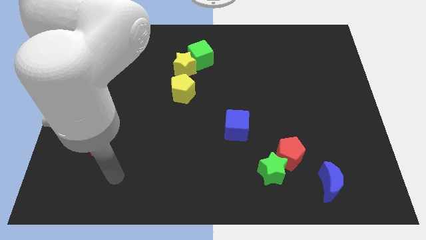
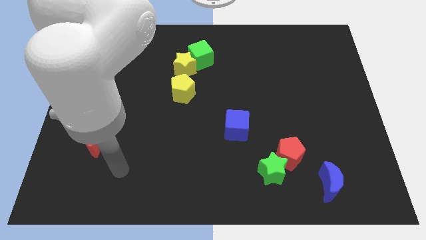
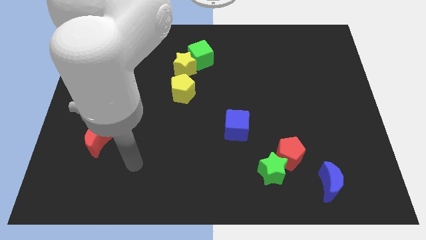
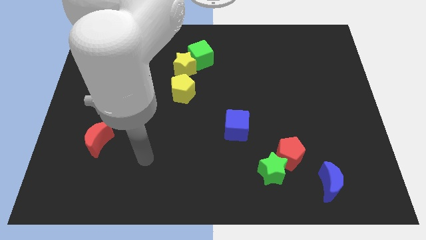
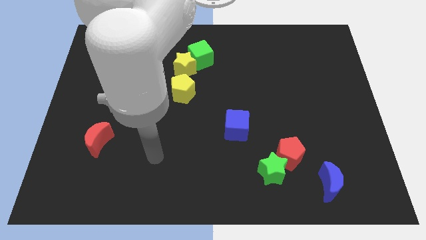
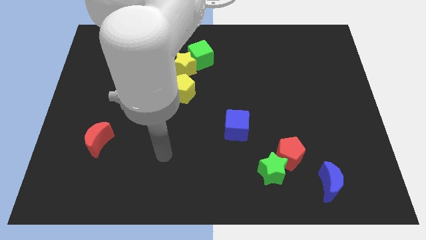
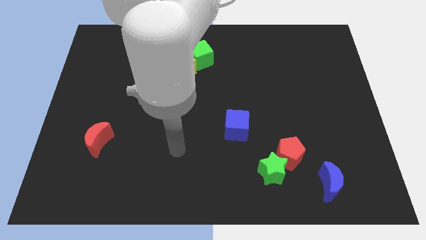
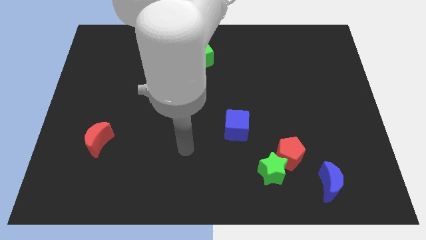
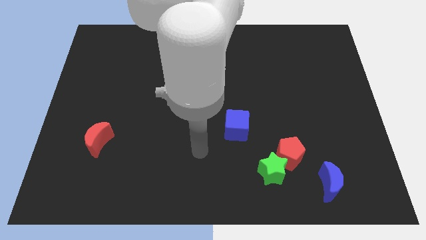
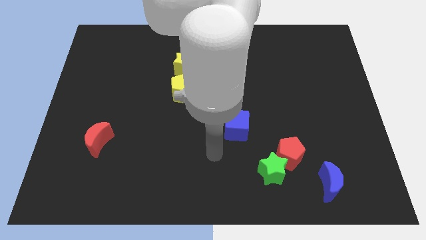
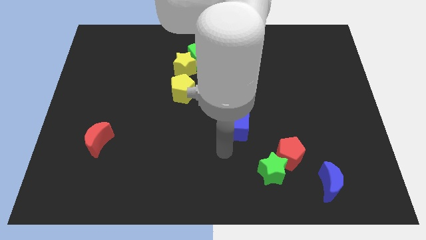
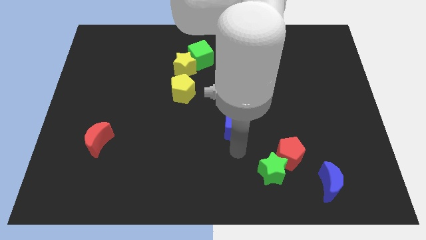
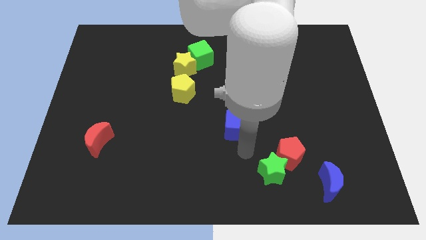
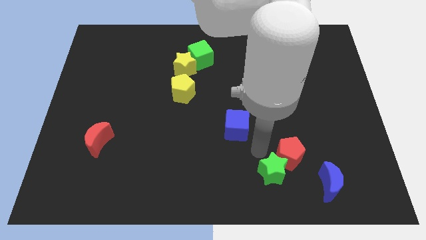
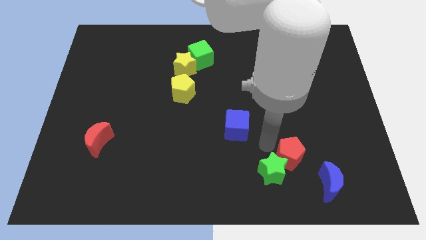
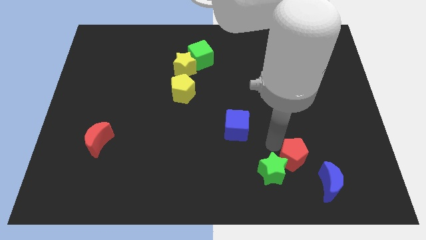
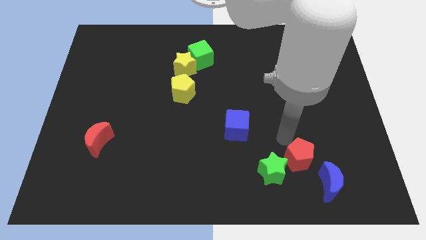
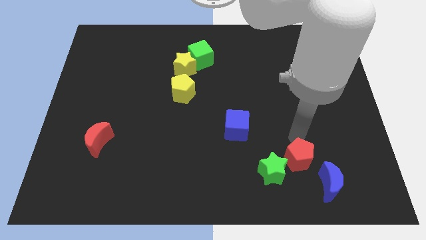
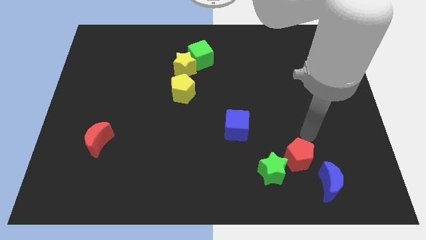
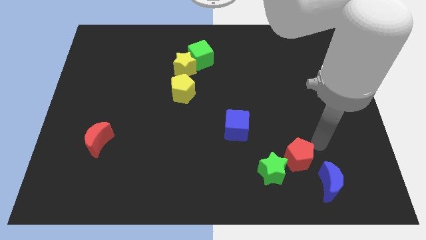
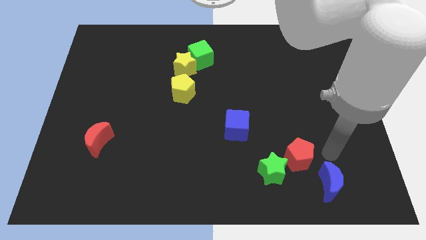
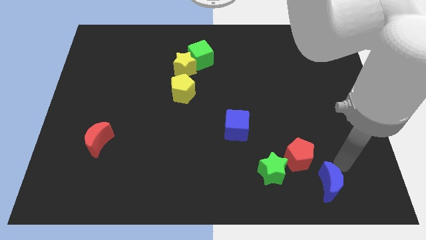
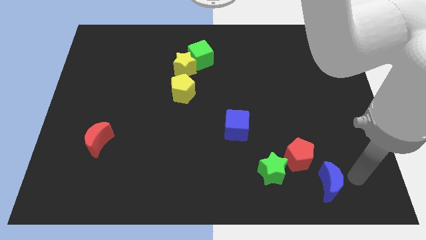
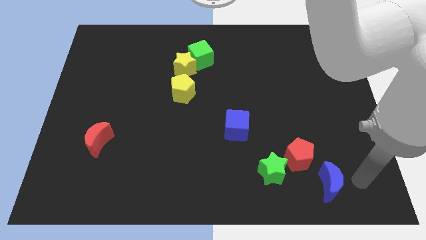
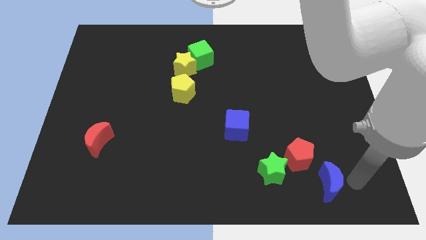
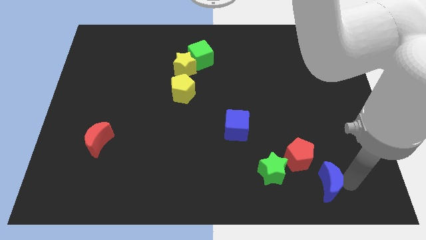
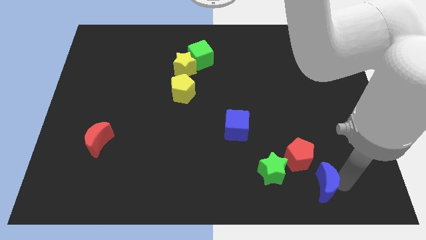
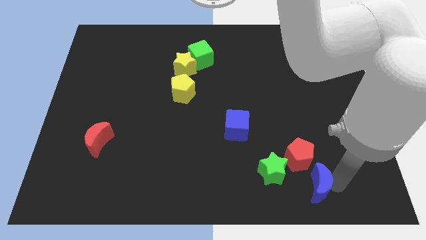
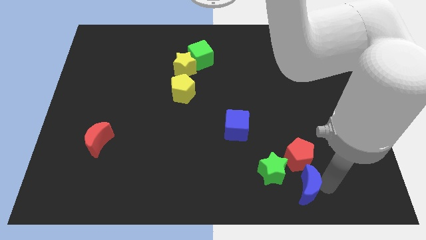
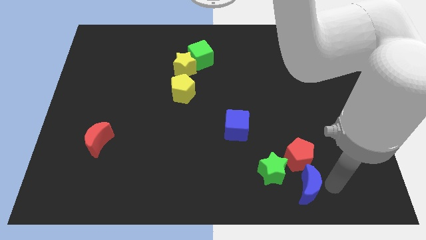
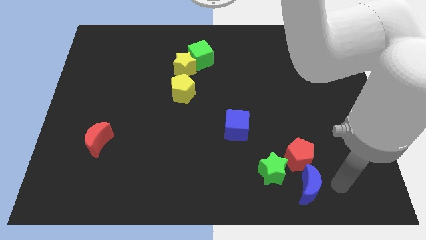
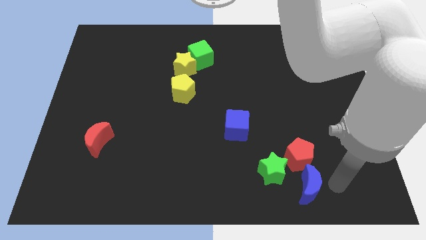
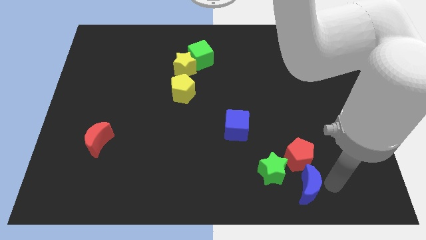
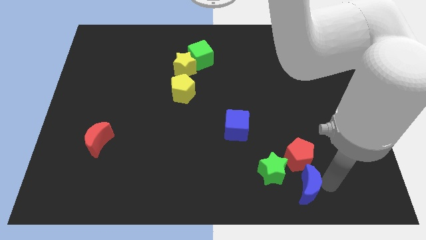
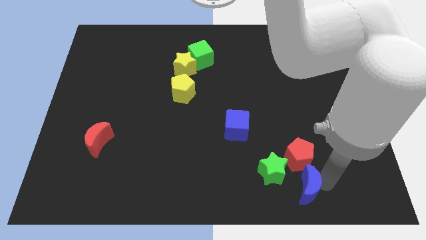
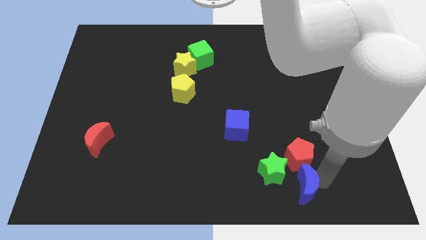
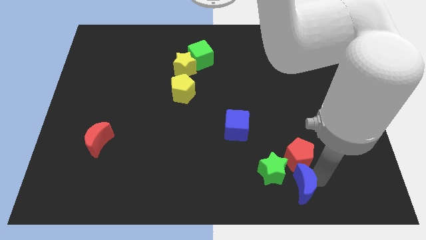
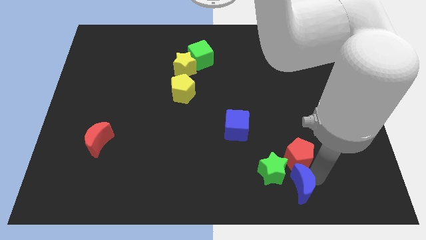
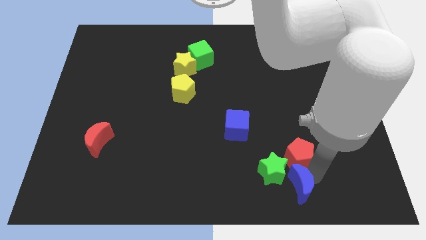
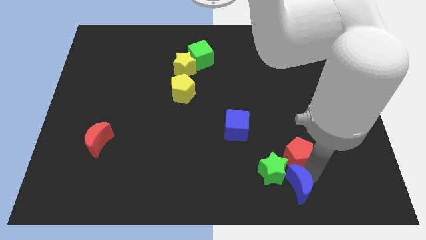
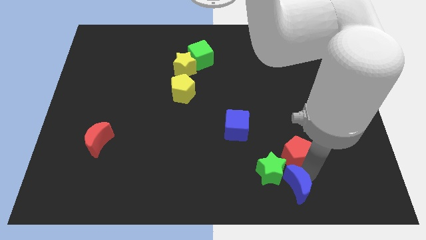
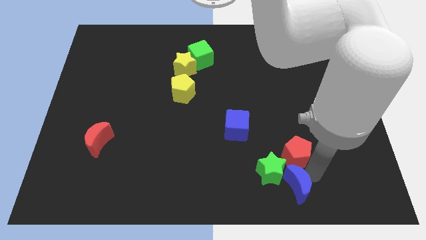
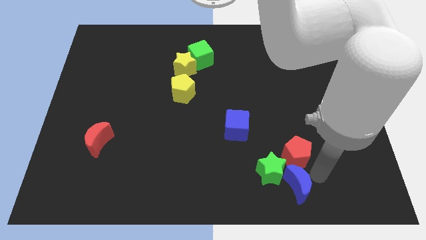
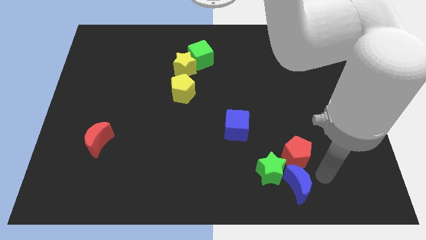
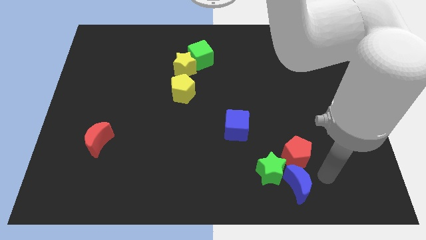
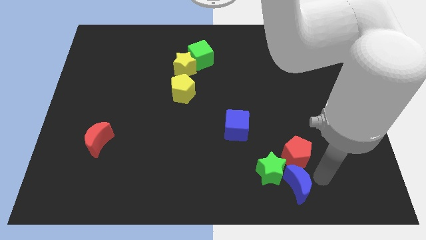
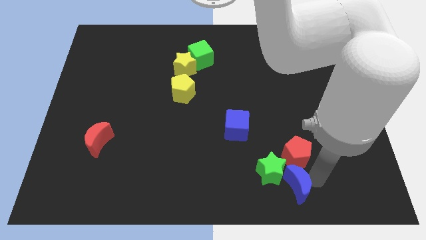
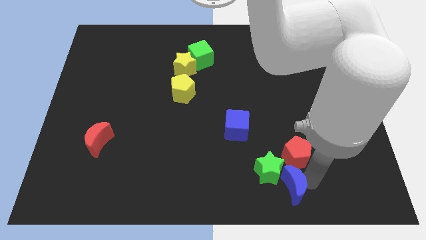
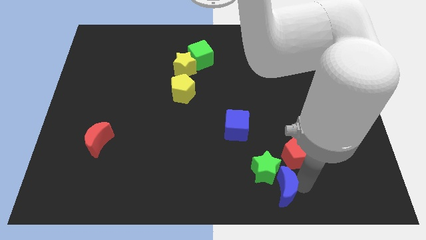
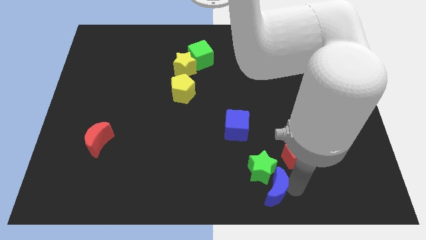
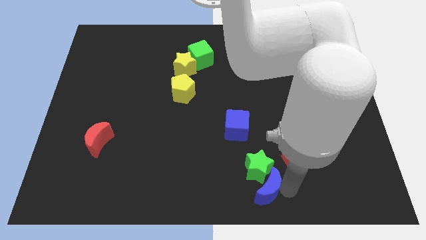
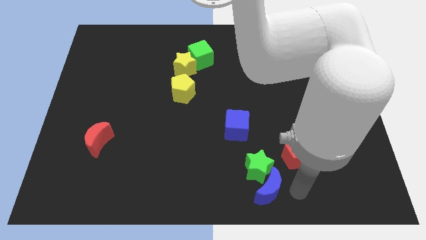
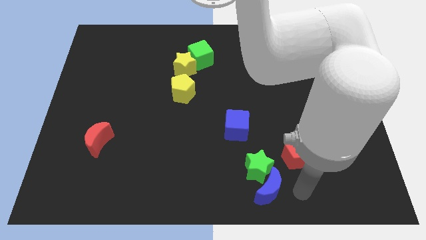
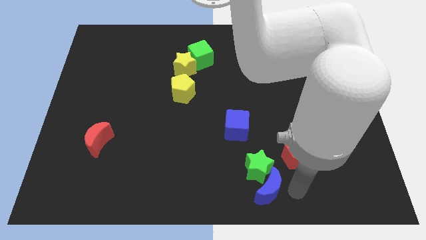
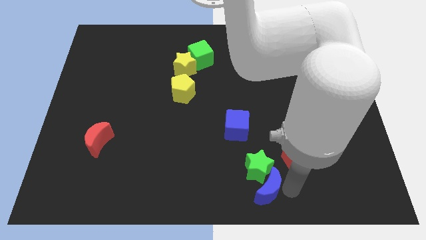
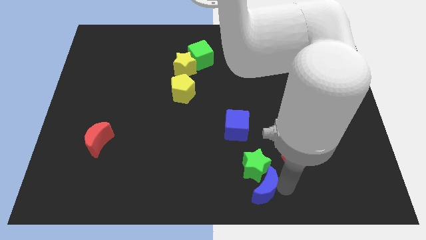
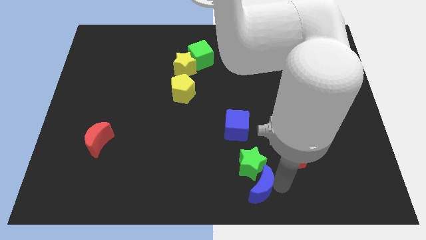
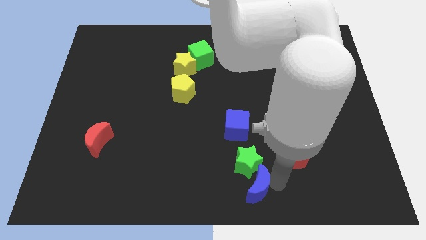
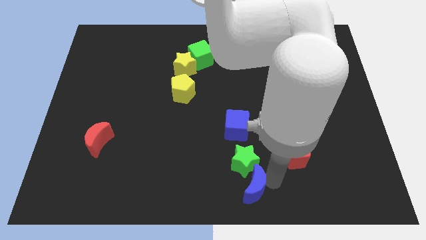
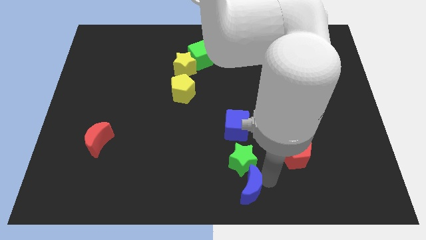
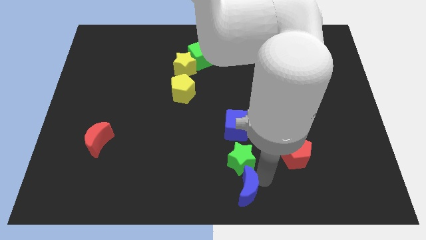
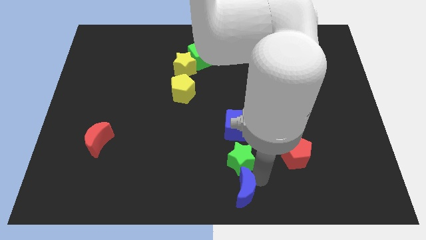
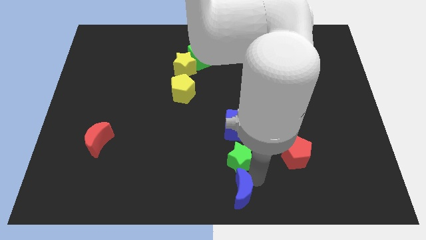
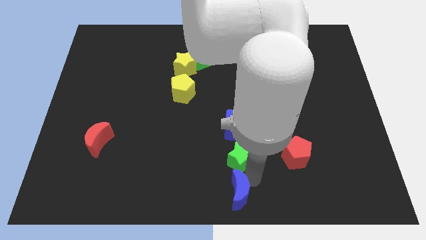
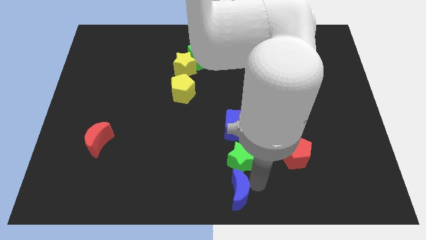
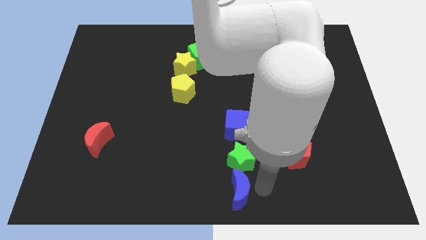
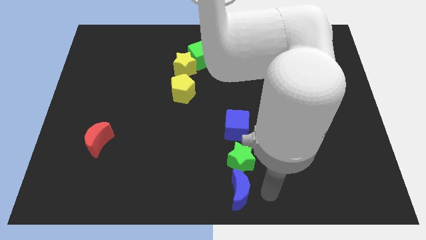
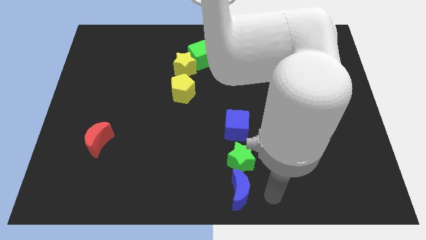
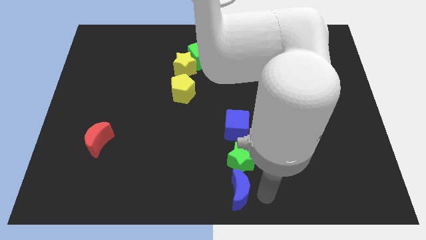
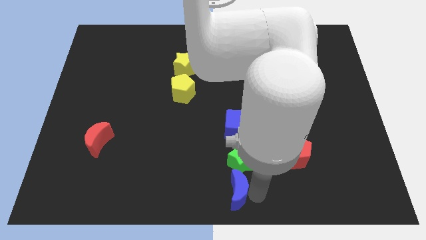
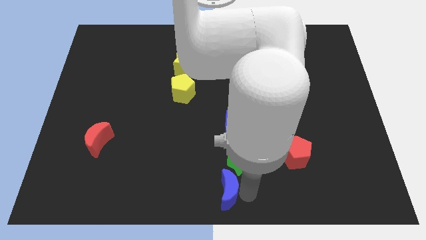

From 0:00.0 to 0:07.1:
slide the blue moon to the left

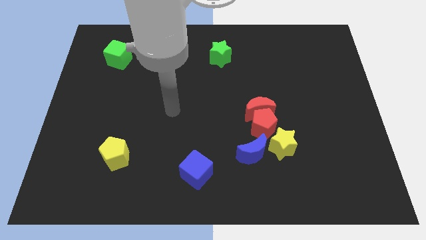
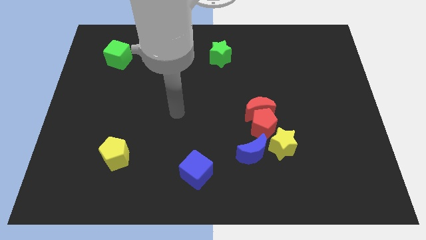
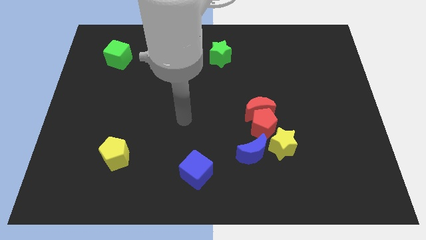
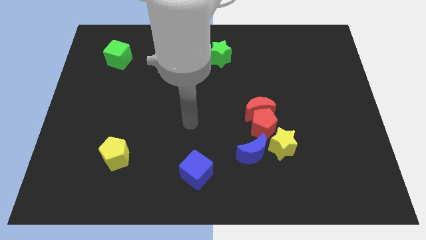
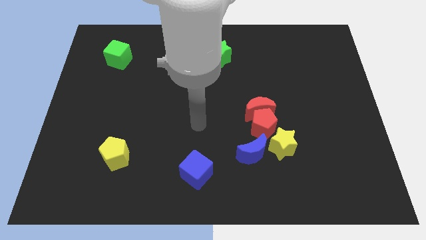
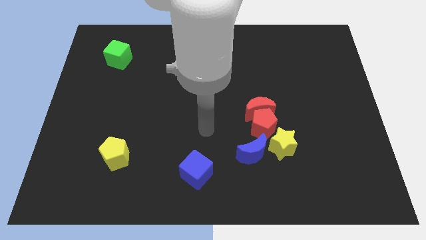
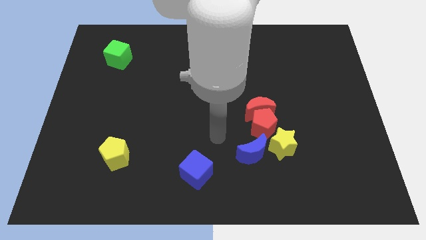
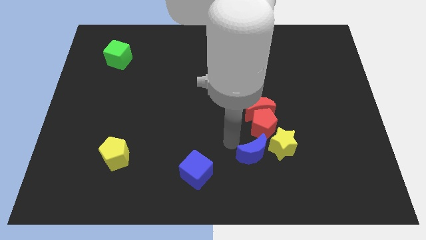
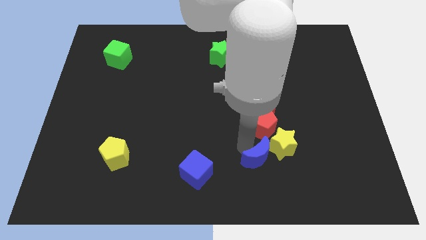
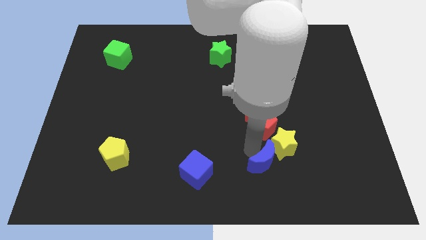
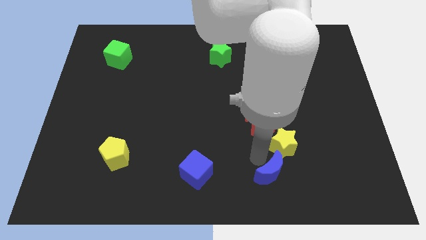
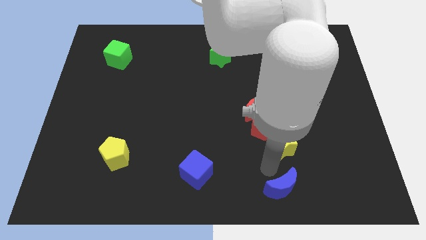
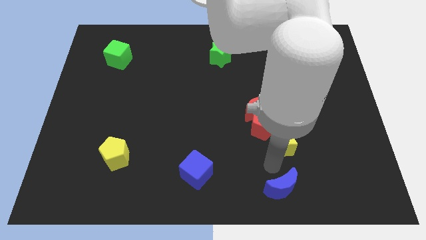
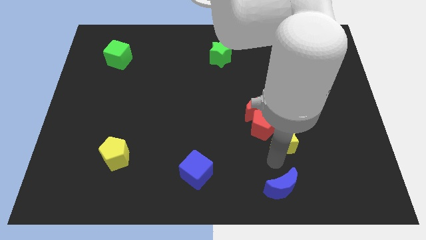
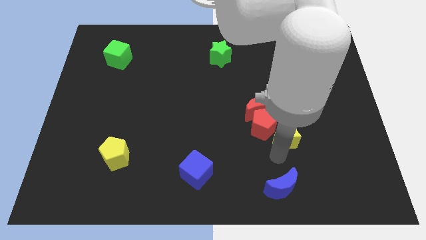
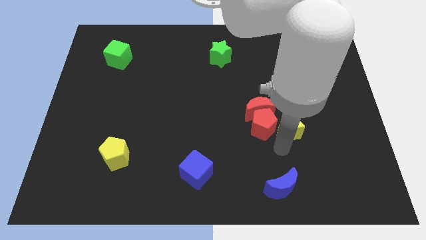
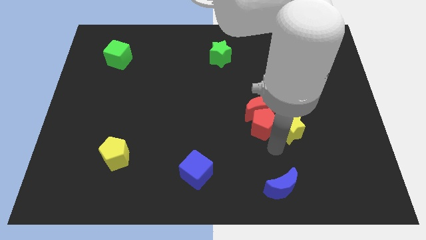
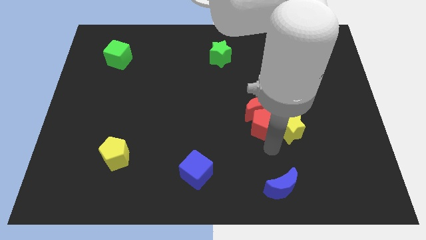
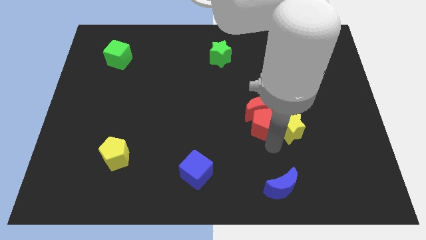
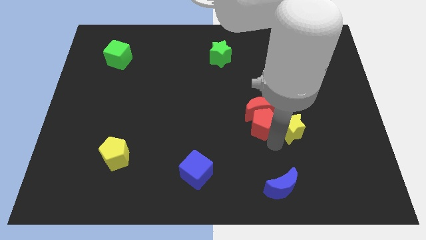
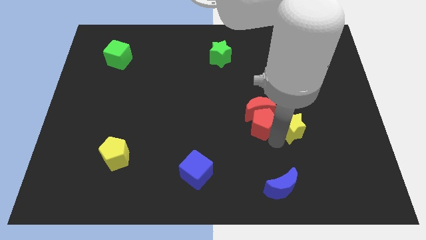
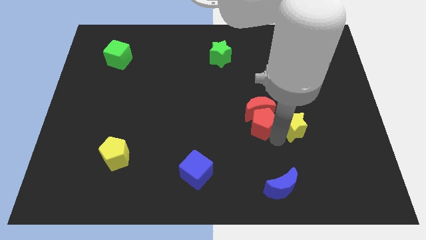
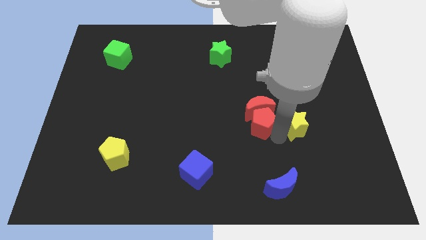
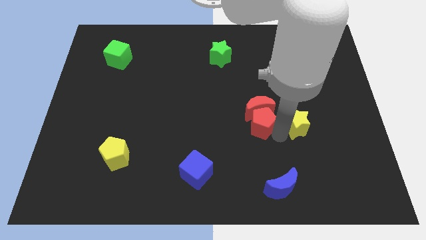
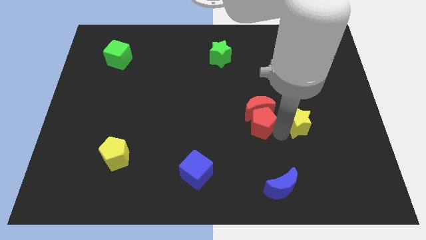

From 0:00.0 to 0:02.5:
push the yellow star somewhat diagonally up and right
